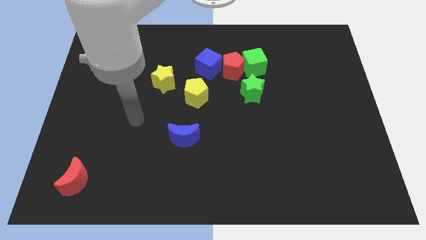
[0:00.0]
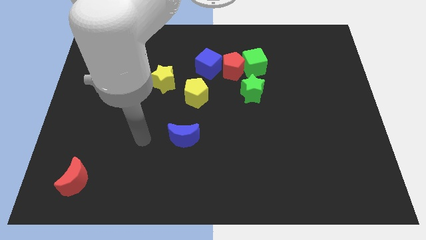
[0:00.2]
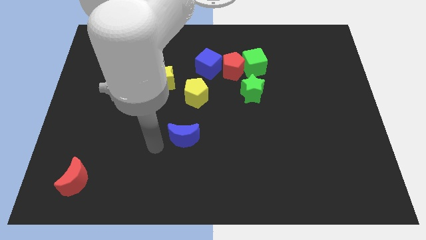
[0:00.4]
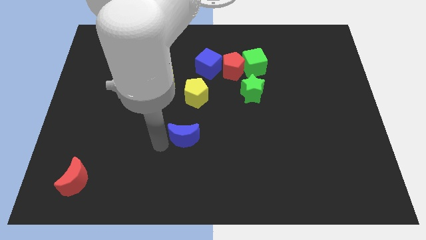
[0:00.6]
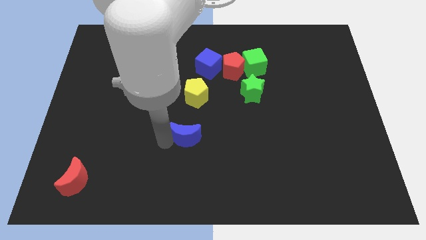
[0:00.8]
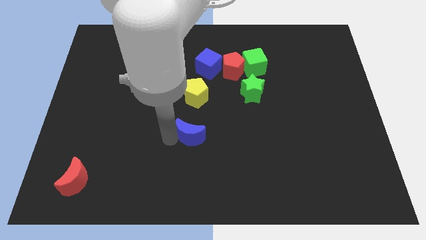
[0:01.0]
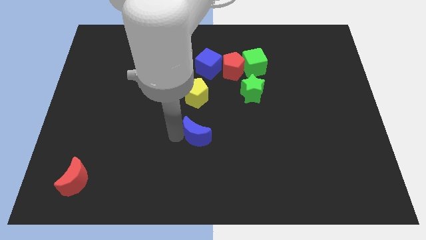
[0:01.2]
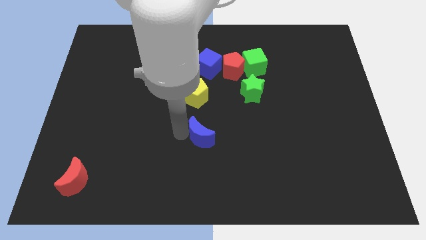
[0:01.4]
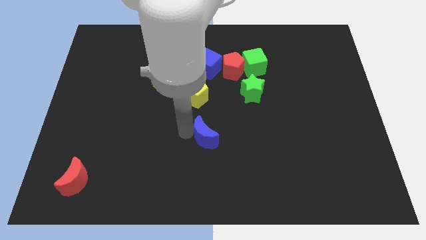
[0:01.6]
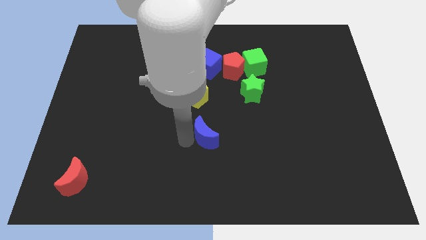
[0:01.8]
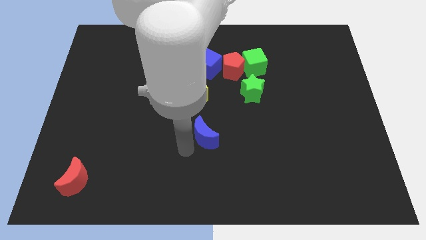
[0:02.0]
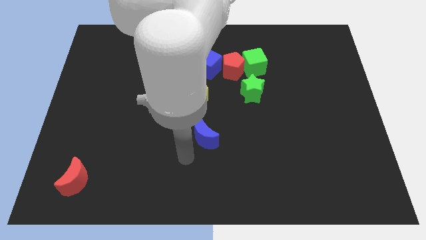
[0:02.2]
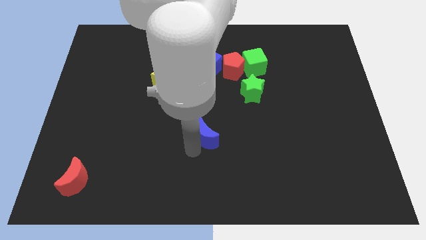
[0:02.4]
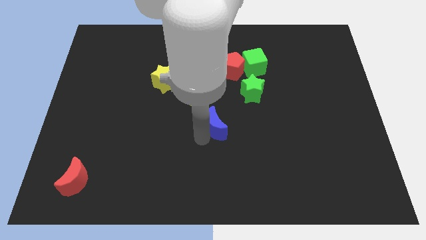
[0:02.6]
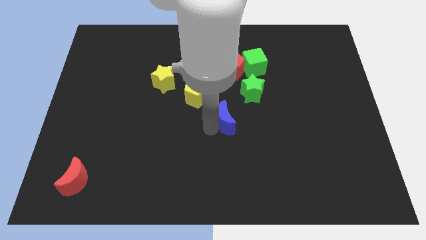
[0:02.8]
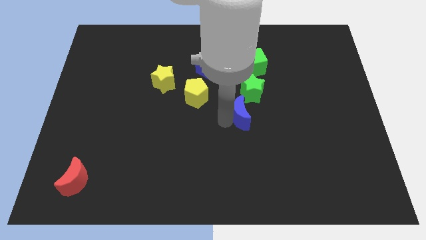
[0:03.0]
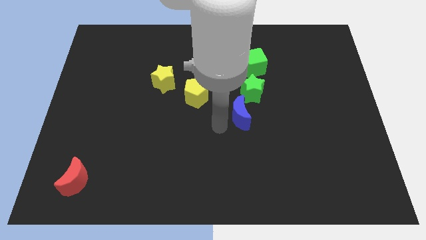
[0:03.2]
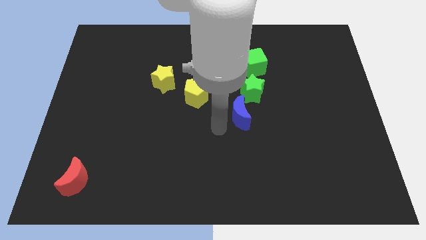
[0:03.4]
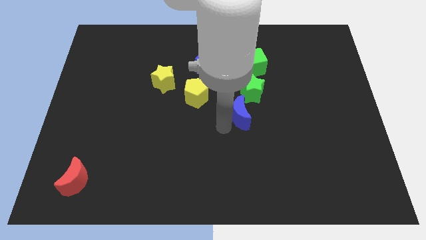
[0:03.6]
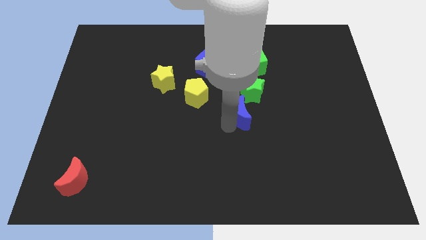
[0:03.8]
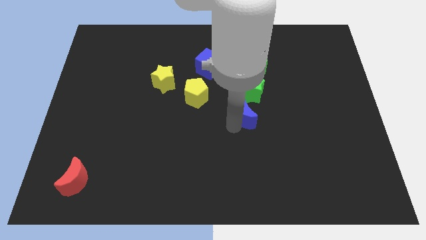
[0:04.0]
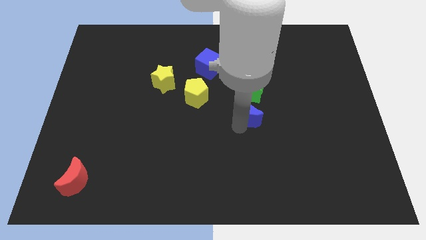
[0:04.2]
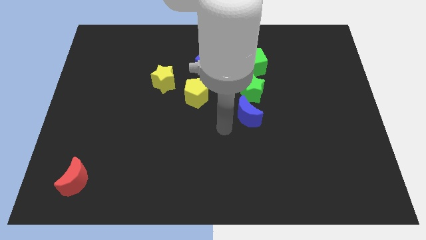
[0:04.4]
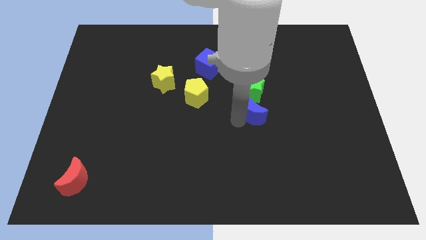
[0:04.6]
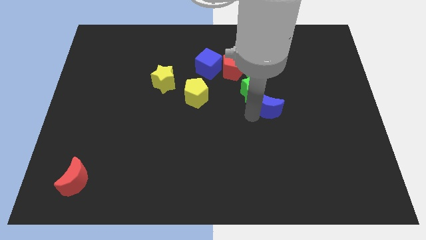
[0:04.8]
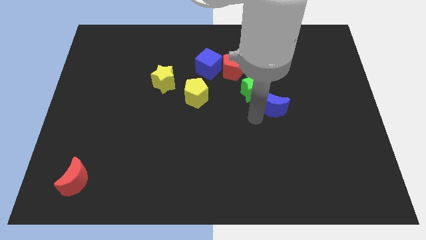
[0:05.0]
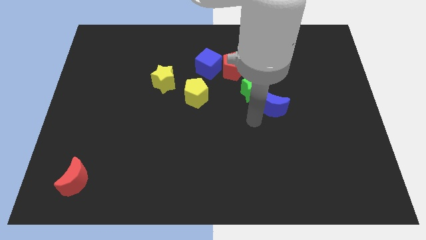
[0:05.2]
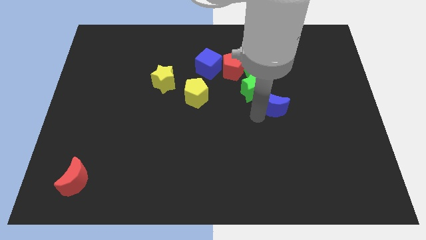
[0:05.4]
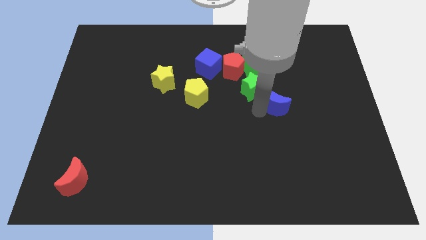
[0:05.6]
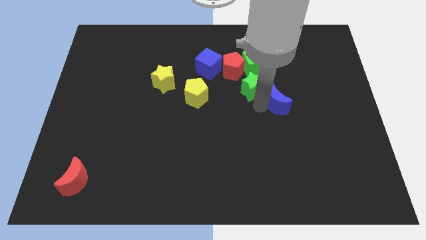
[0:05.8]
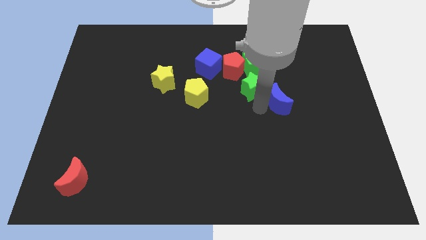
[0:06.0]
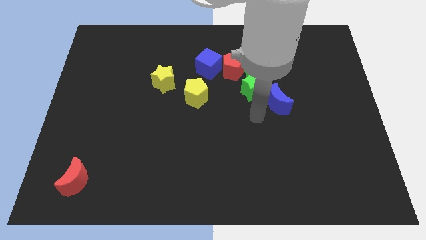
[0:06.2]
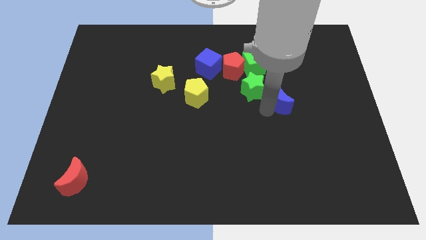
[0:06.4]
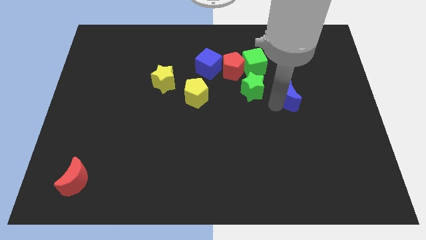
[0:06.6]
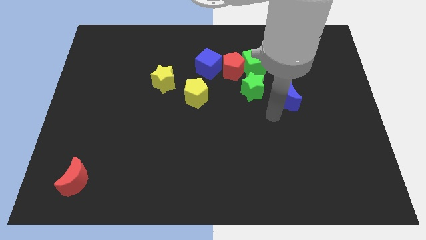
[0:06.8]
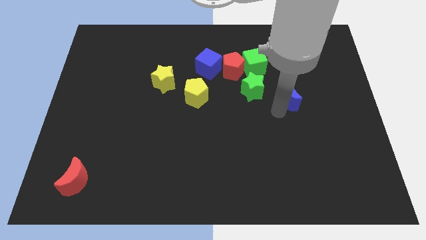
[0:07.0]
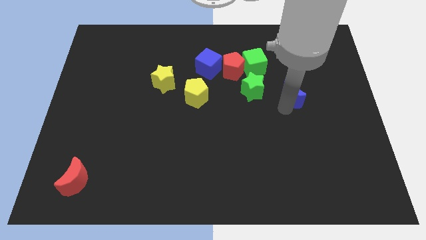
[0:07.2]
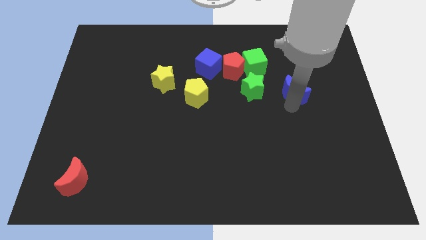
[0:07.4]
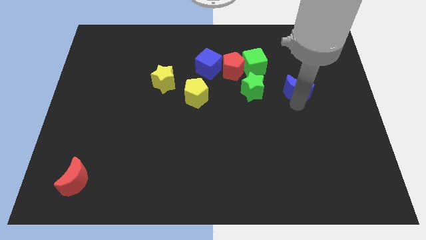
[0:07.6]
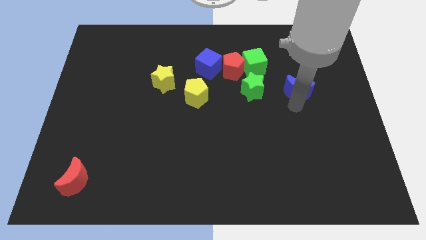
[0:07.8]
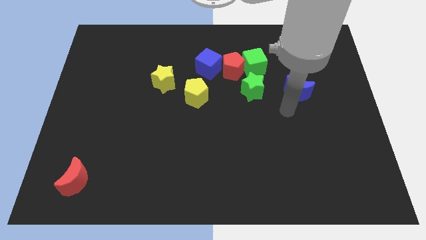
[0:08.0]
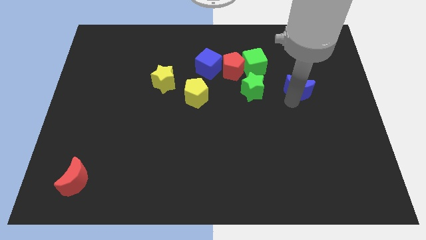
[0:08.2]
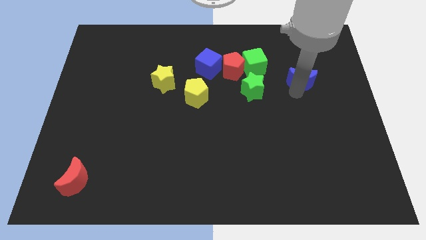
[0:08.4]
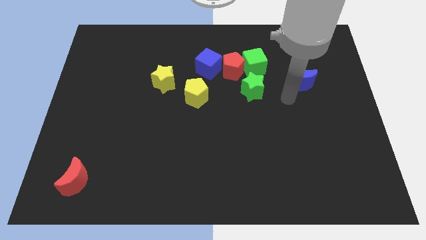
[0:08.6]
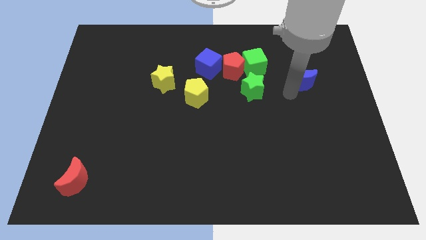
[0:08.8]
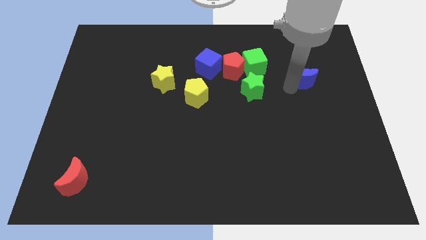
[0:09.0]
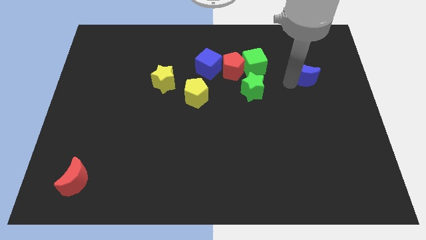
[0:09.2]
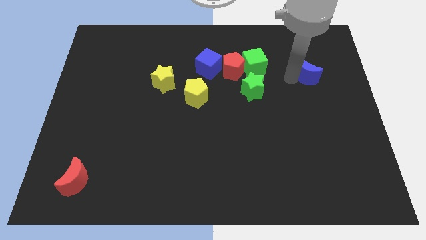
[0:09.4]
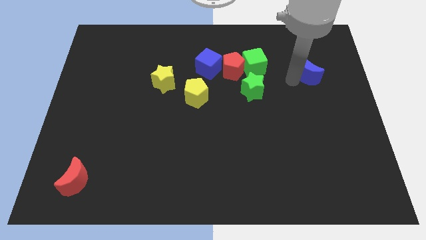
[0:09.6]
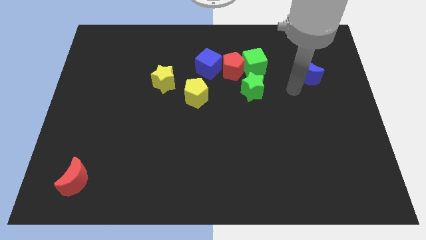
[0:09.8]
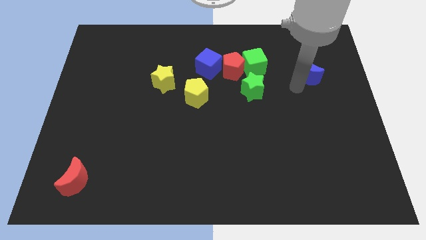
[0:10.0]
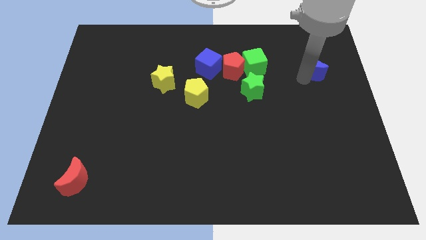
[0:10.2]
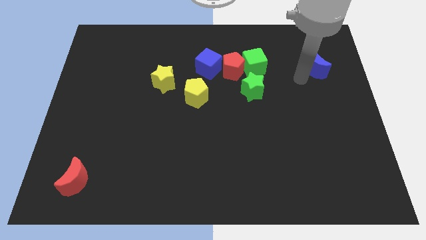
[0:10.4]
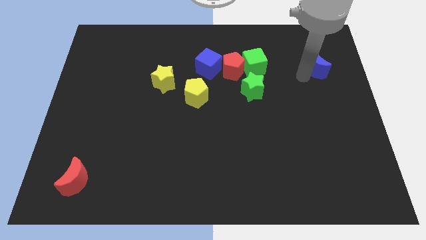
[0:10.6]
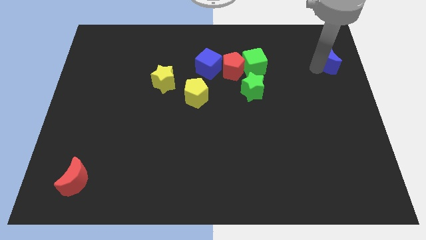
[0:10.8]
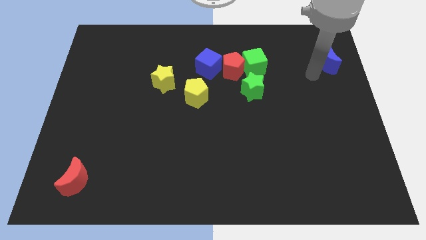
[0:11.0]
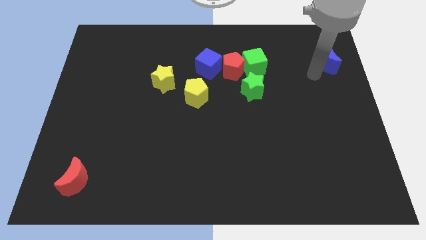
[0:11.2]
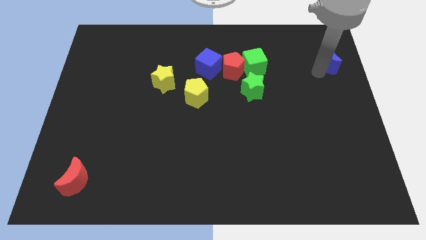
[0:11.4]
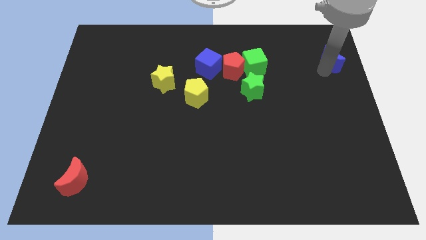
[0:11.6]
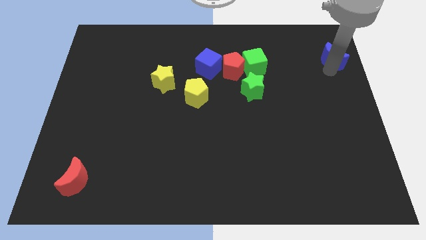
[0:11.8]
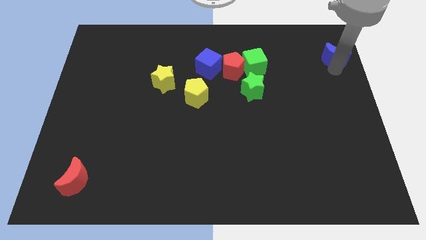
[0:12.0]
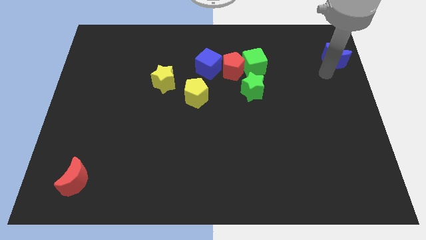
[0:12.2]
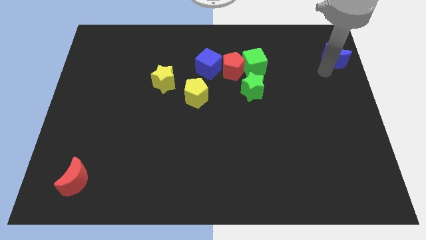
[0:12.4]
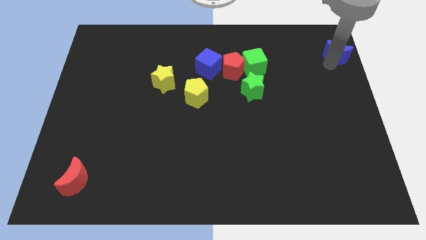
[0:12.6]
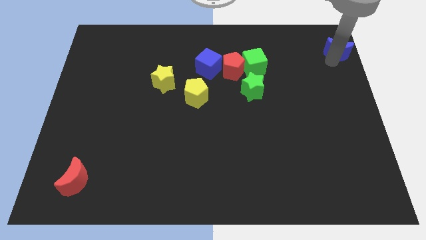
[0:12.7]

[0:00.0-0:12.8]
put the blue moon to the top right
